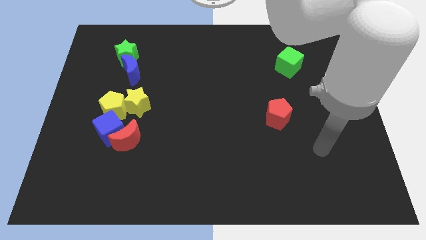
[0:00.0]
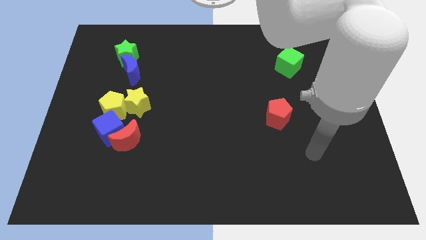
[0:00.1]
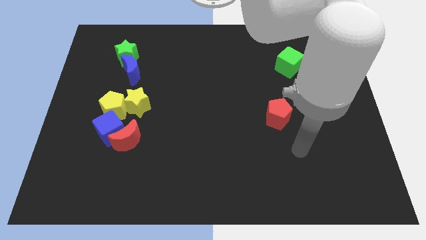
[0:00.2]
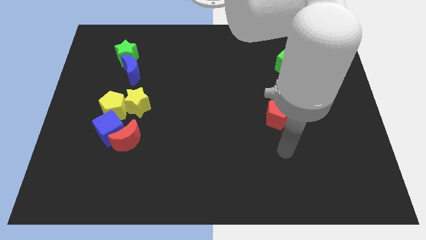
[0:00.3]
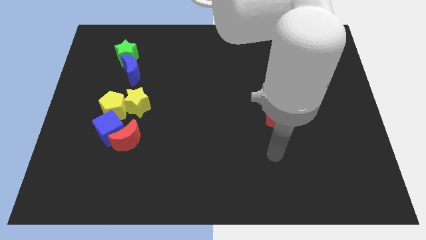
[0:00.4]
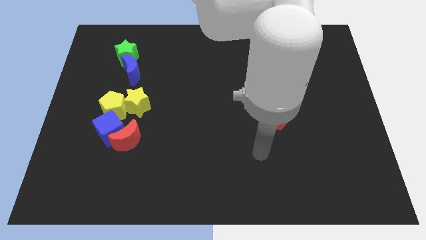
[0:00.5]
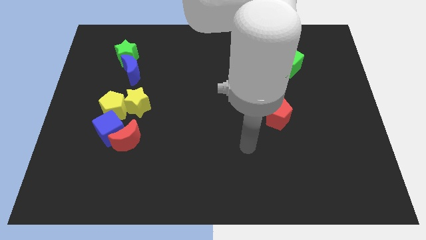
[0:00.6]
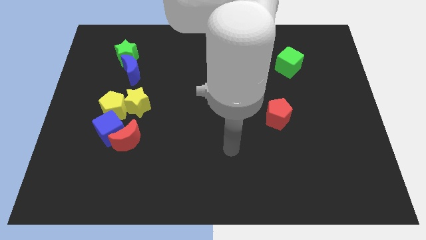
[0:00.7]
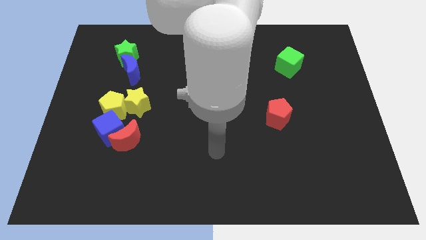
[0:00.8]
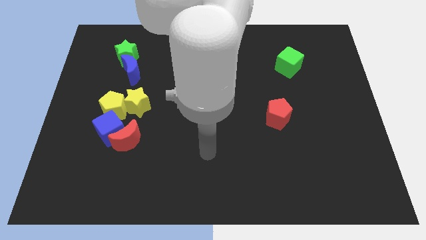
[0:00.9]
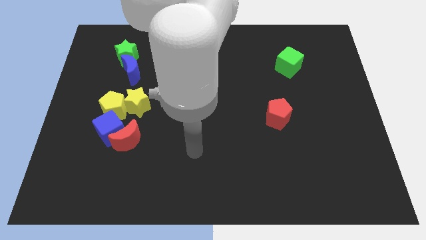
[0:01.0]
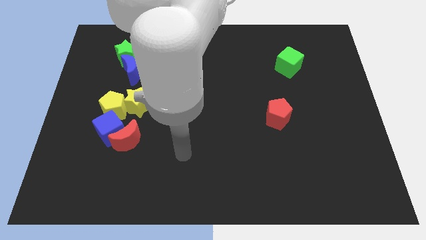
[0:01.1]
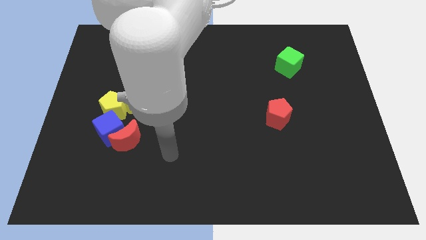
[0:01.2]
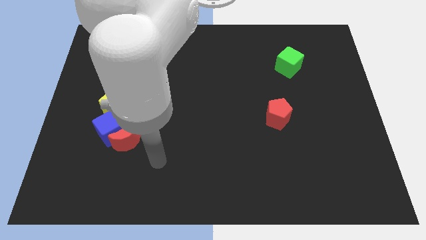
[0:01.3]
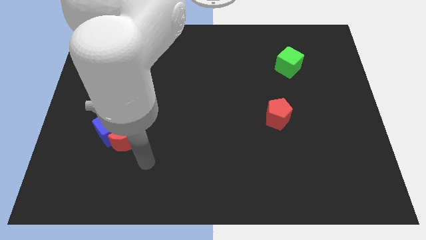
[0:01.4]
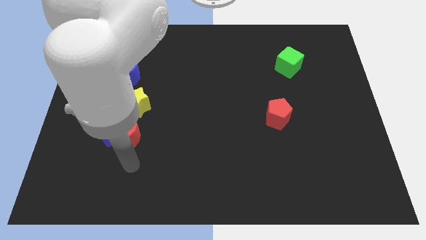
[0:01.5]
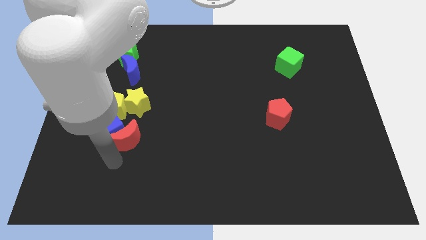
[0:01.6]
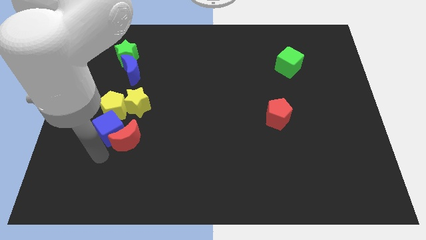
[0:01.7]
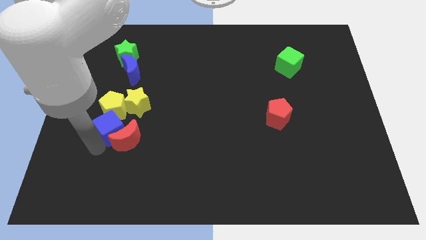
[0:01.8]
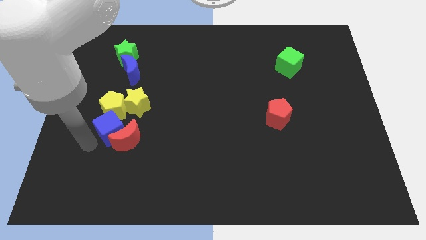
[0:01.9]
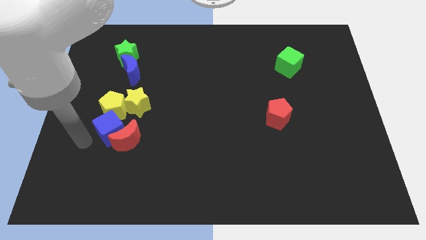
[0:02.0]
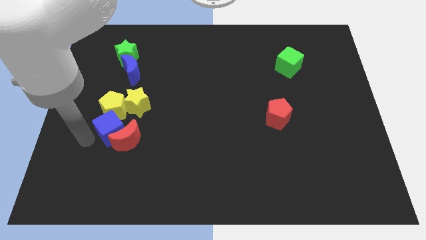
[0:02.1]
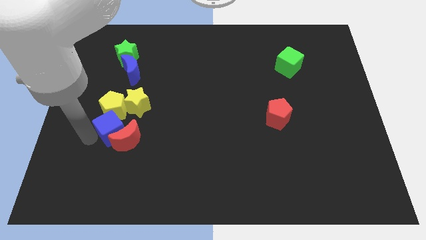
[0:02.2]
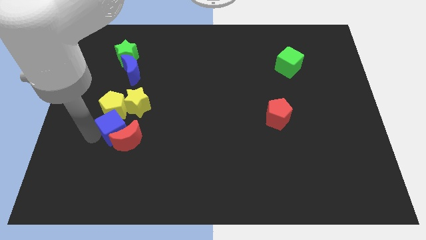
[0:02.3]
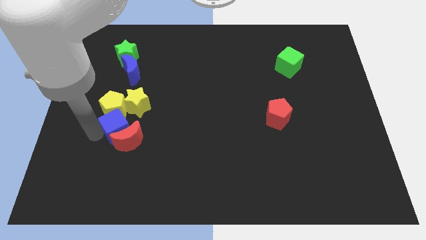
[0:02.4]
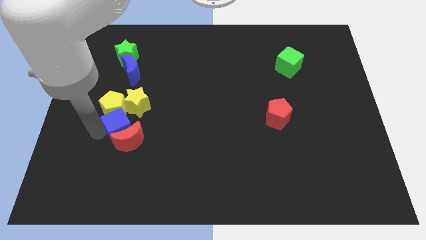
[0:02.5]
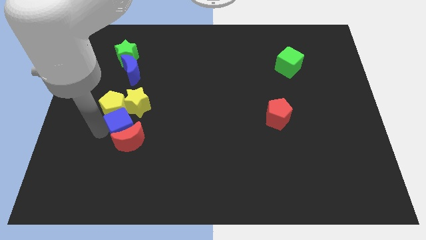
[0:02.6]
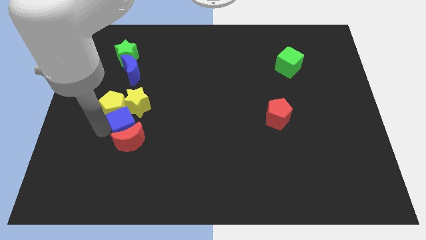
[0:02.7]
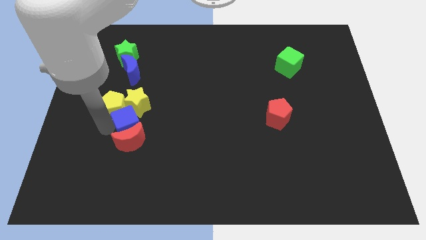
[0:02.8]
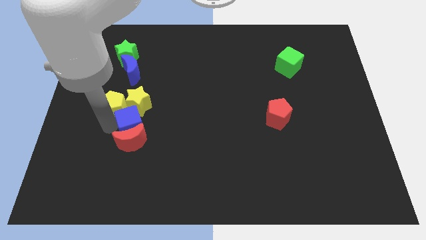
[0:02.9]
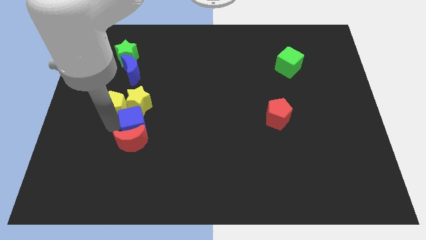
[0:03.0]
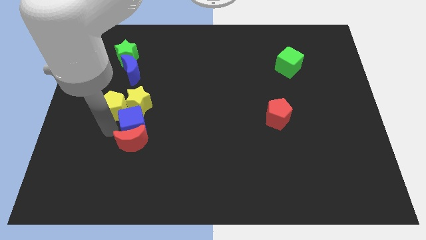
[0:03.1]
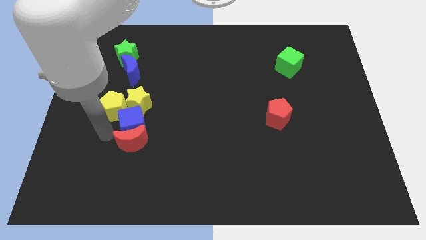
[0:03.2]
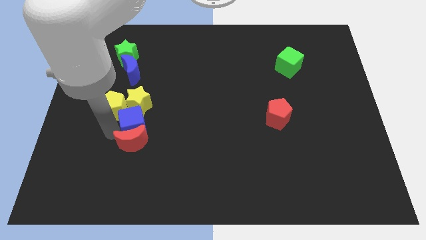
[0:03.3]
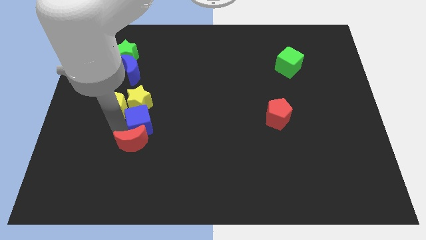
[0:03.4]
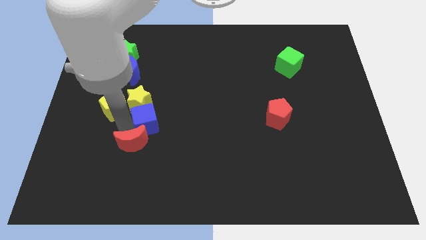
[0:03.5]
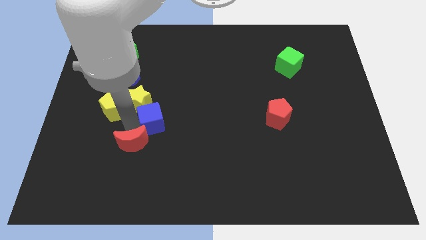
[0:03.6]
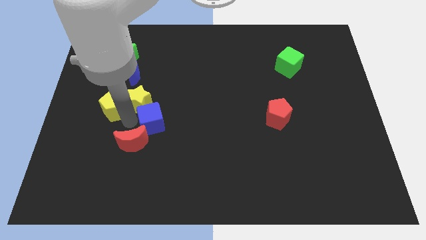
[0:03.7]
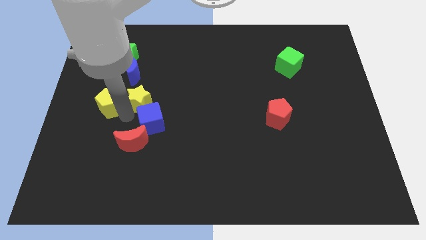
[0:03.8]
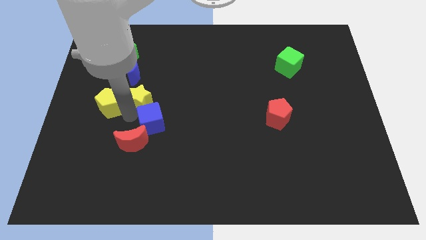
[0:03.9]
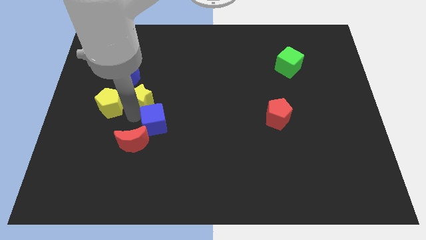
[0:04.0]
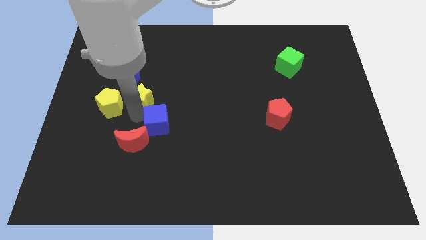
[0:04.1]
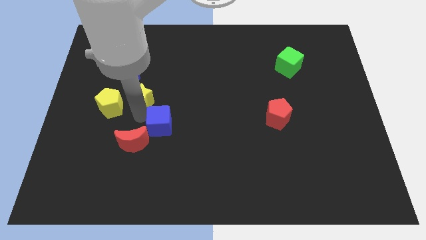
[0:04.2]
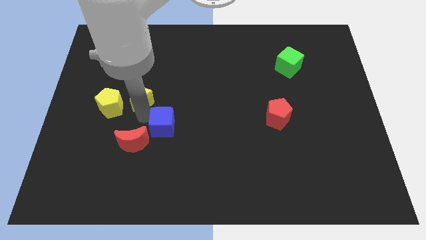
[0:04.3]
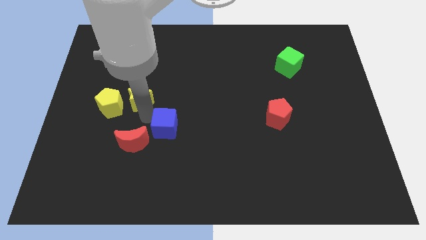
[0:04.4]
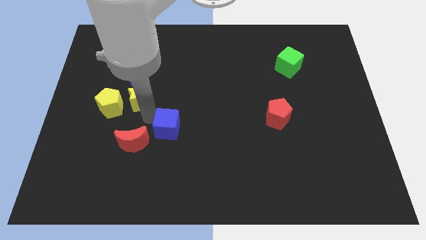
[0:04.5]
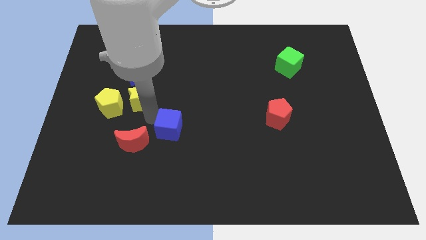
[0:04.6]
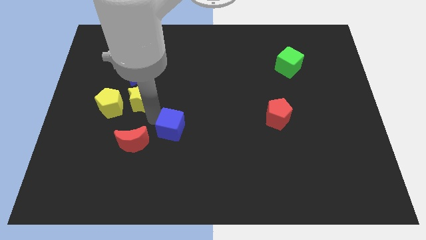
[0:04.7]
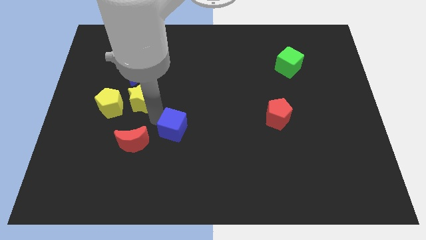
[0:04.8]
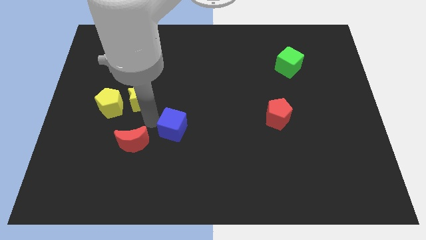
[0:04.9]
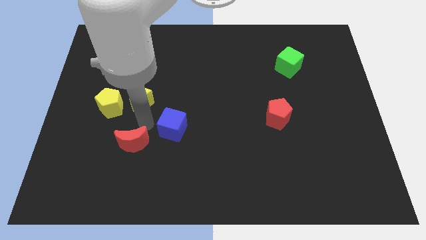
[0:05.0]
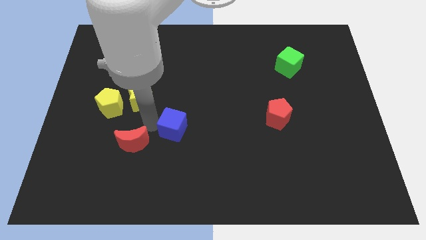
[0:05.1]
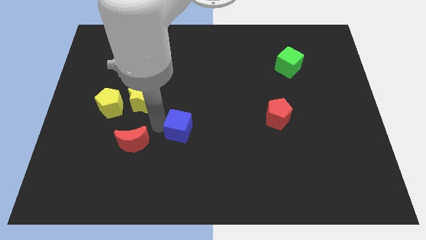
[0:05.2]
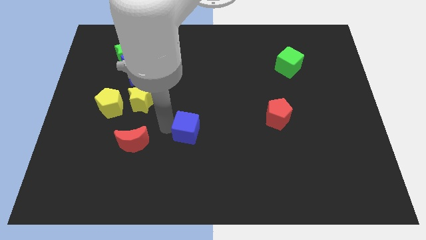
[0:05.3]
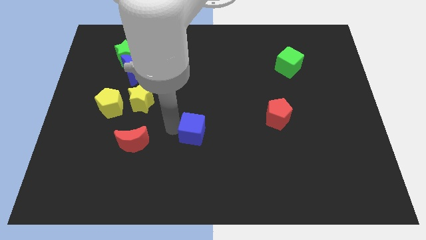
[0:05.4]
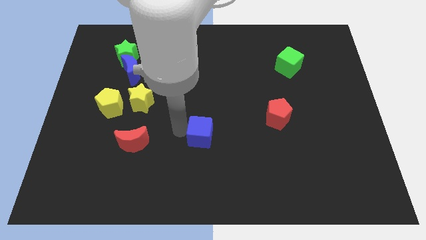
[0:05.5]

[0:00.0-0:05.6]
push the blue cube to the right

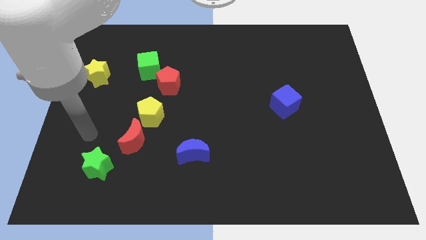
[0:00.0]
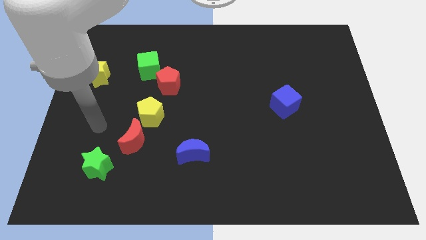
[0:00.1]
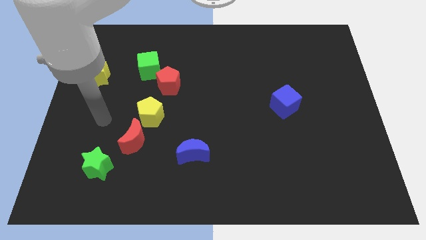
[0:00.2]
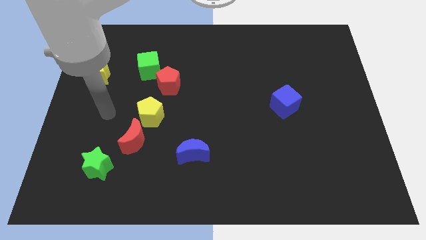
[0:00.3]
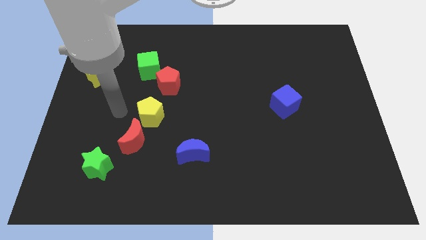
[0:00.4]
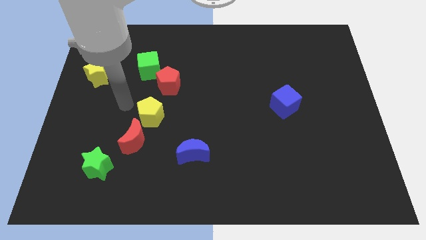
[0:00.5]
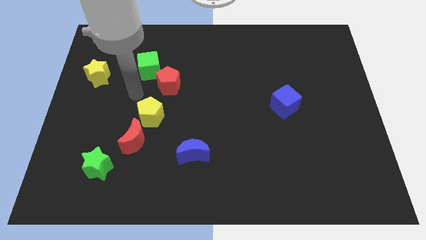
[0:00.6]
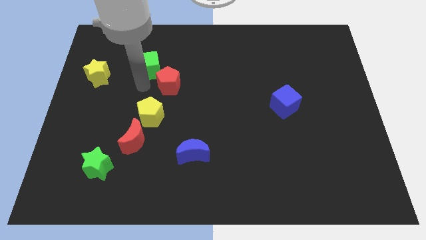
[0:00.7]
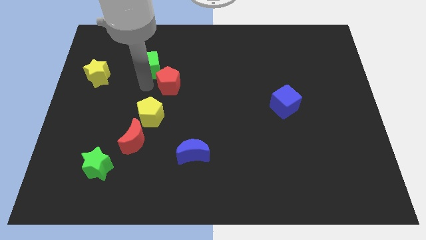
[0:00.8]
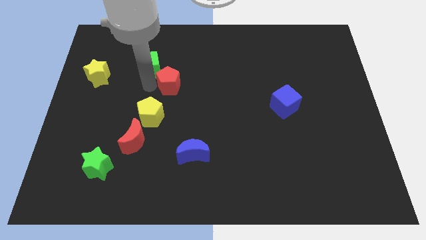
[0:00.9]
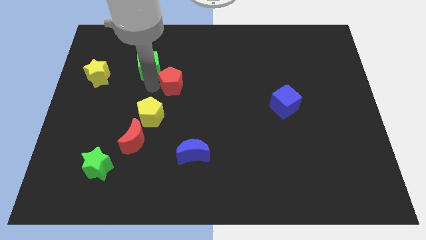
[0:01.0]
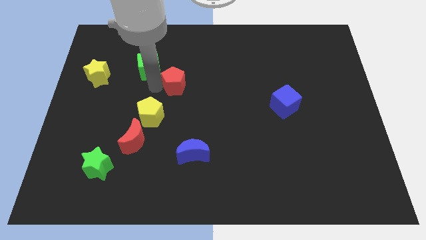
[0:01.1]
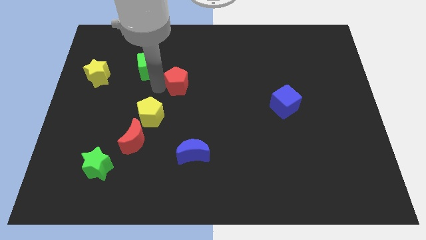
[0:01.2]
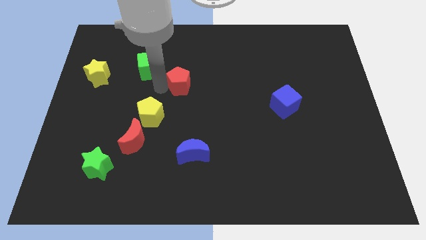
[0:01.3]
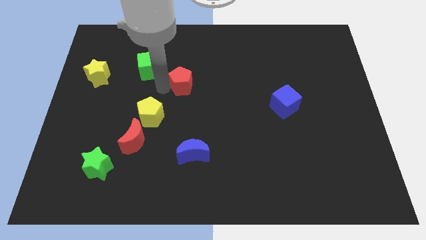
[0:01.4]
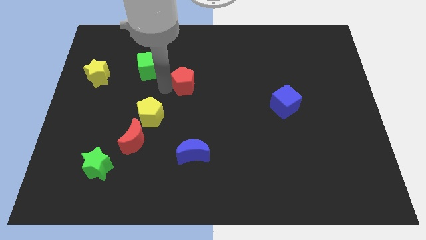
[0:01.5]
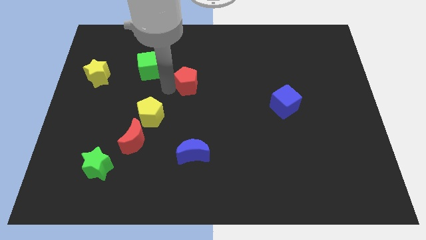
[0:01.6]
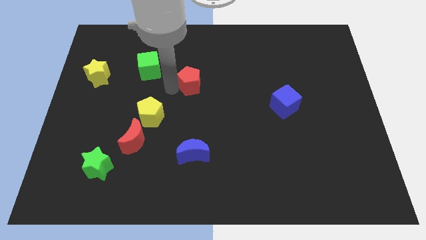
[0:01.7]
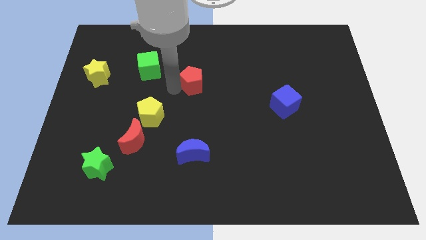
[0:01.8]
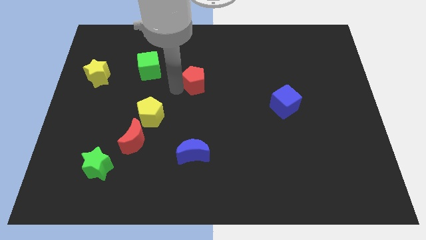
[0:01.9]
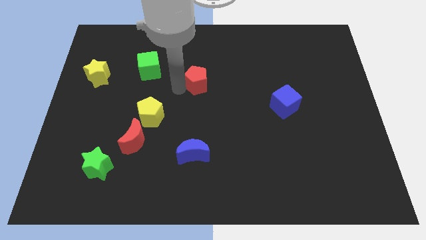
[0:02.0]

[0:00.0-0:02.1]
slightly push the red pentagon right

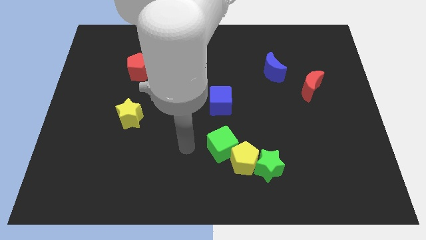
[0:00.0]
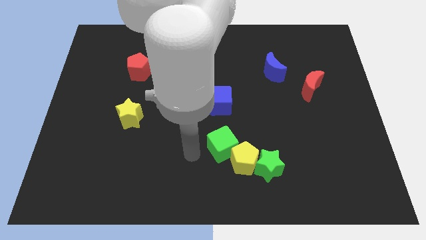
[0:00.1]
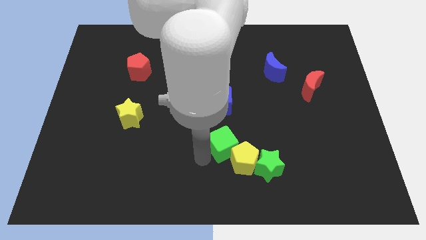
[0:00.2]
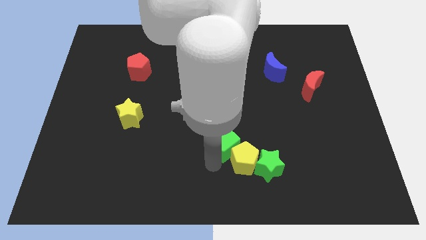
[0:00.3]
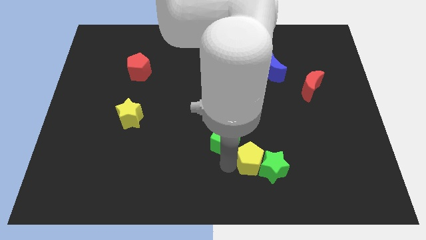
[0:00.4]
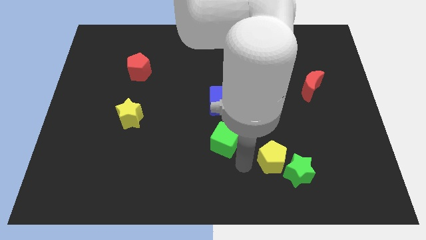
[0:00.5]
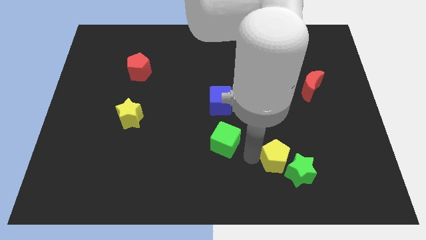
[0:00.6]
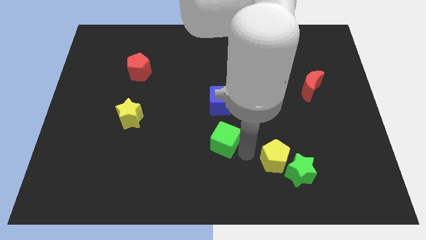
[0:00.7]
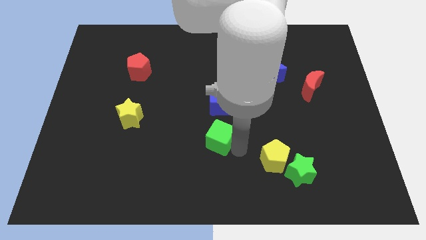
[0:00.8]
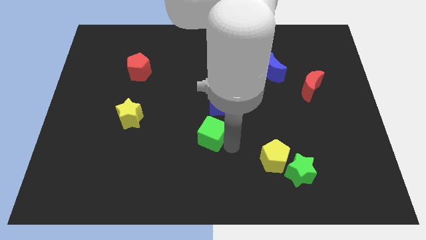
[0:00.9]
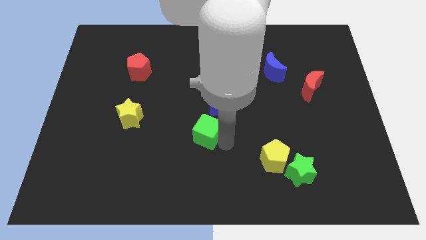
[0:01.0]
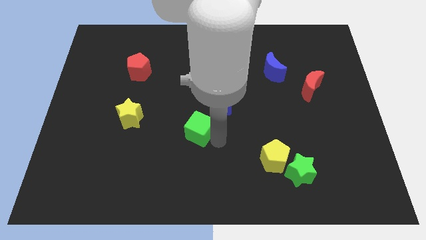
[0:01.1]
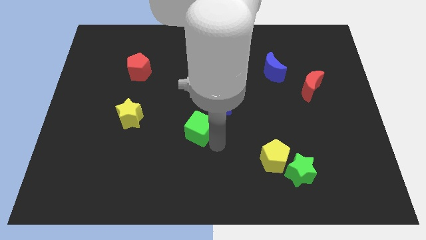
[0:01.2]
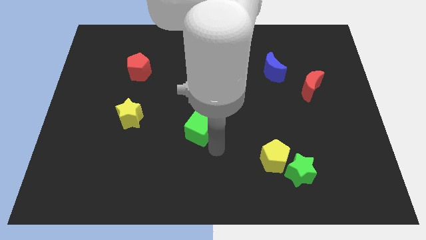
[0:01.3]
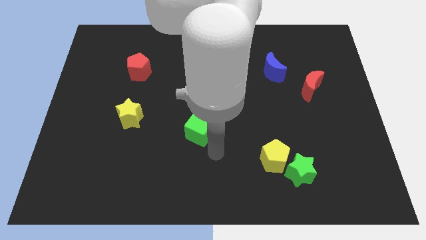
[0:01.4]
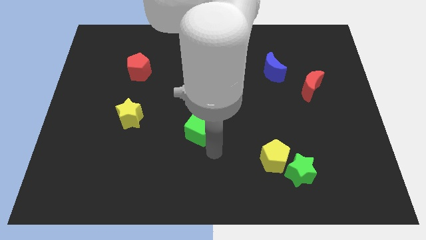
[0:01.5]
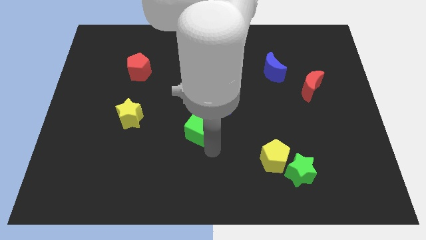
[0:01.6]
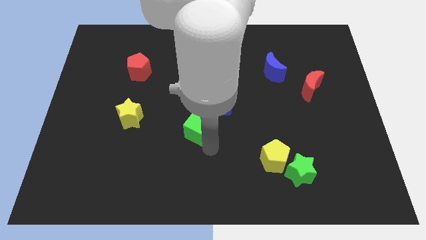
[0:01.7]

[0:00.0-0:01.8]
push the green cube up and then left a little bit
